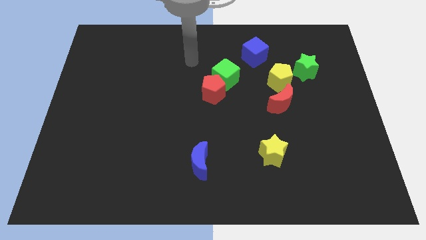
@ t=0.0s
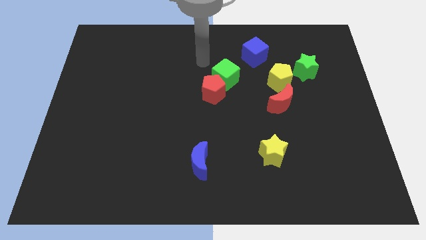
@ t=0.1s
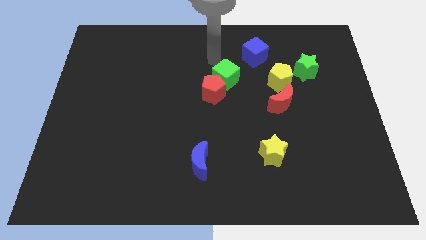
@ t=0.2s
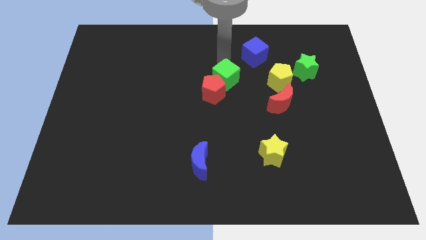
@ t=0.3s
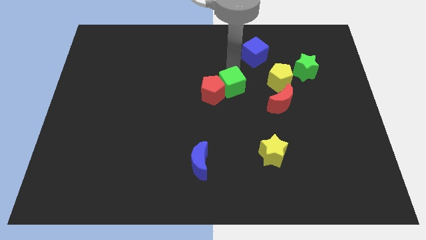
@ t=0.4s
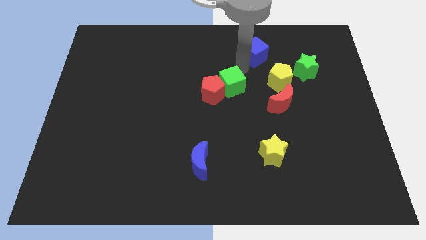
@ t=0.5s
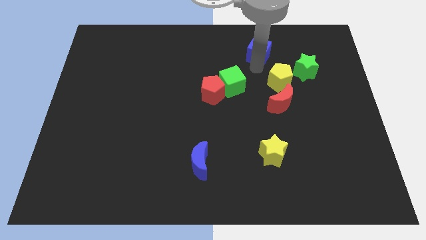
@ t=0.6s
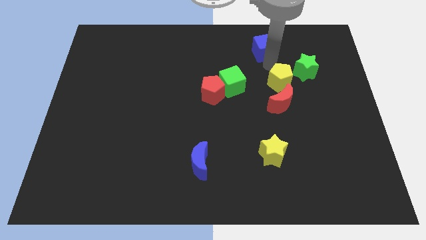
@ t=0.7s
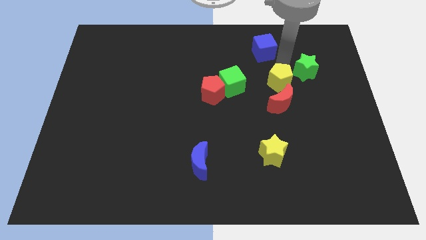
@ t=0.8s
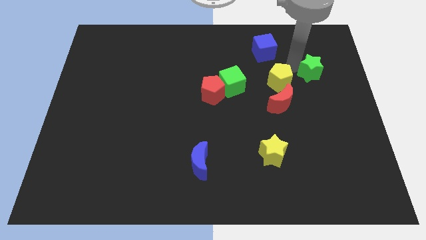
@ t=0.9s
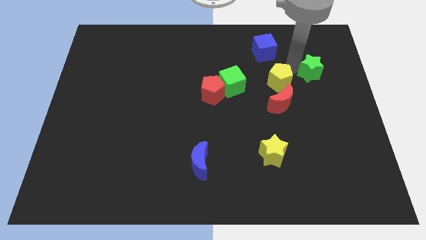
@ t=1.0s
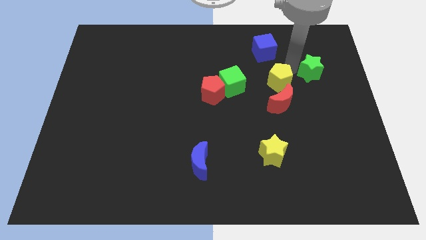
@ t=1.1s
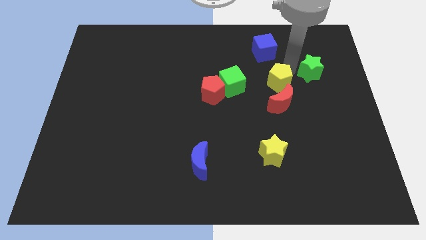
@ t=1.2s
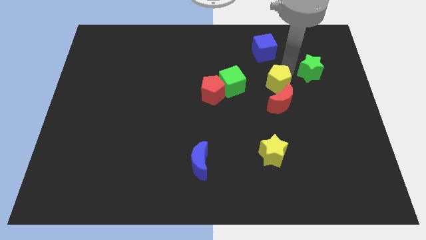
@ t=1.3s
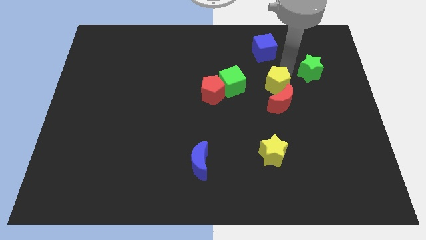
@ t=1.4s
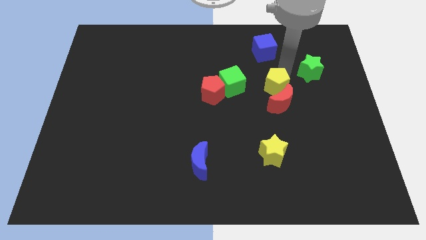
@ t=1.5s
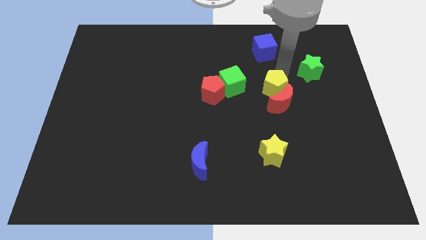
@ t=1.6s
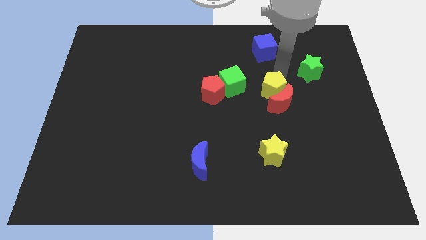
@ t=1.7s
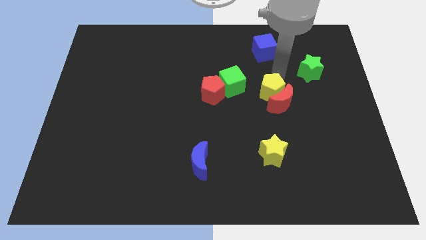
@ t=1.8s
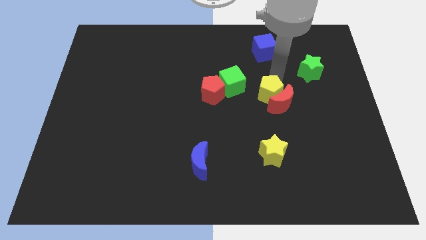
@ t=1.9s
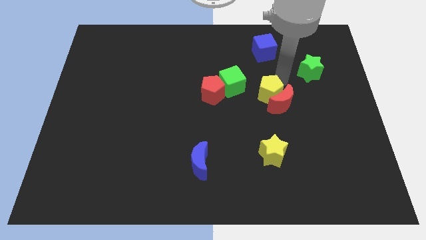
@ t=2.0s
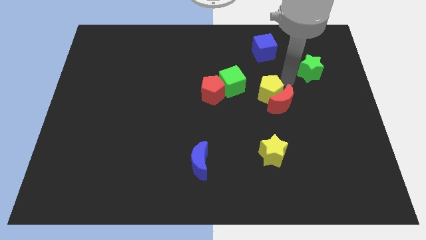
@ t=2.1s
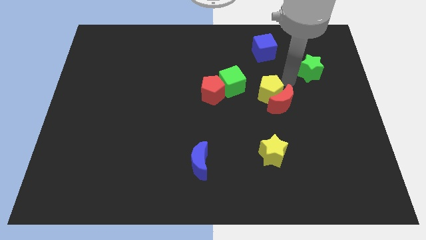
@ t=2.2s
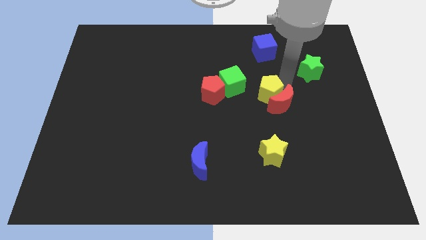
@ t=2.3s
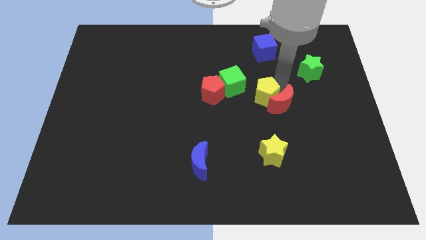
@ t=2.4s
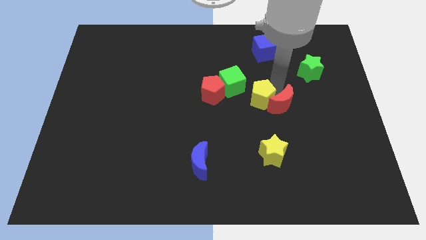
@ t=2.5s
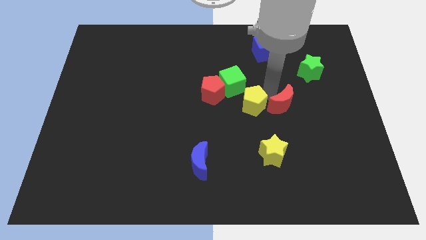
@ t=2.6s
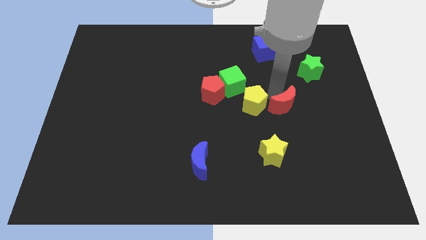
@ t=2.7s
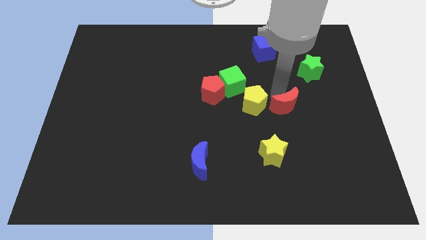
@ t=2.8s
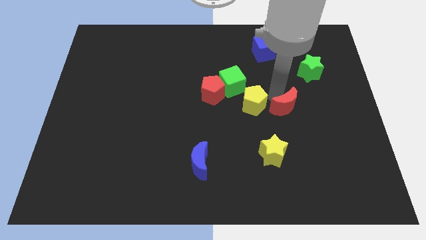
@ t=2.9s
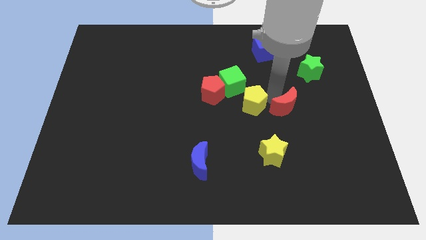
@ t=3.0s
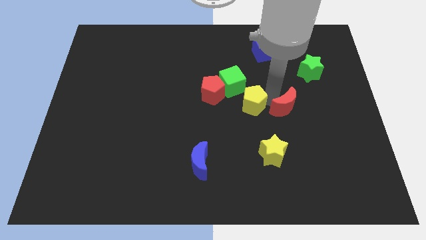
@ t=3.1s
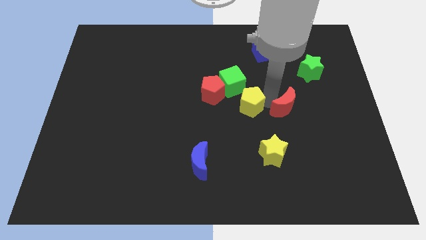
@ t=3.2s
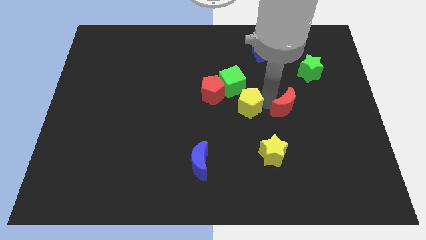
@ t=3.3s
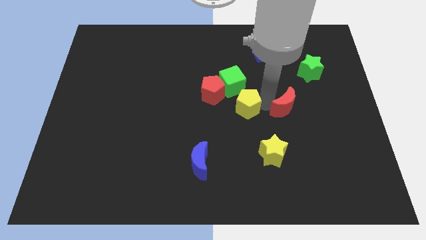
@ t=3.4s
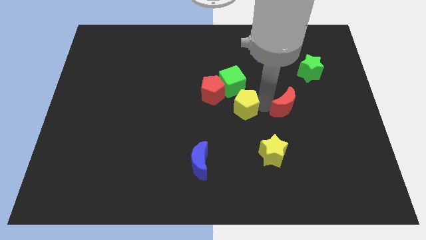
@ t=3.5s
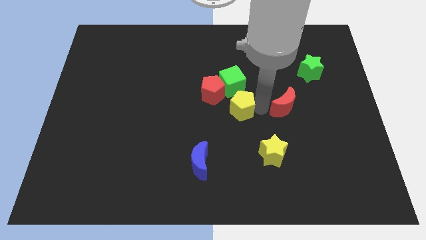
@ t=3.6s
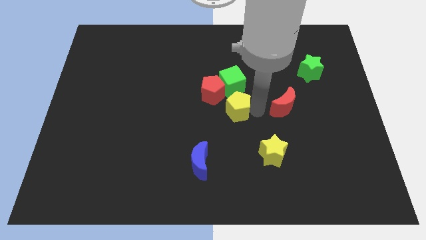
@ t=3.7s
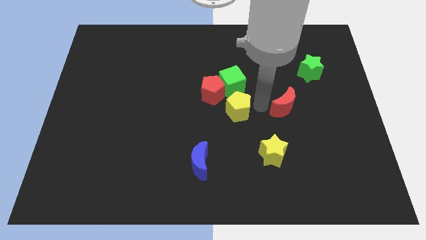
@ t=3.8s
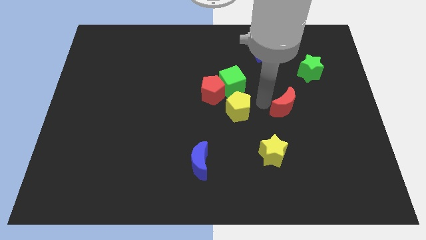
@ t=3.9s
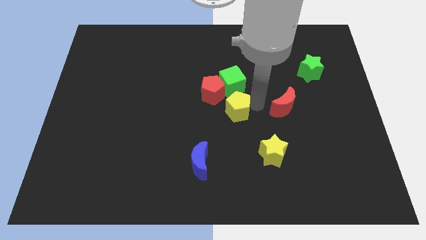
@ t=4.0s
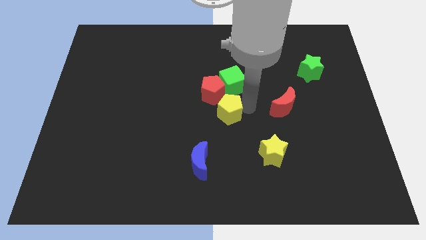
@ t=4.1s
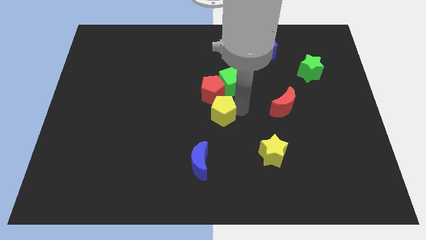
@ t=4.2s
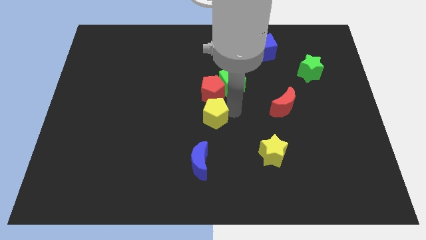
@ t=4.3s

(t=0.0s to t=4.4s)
put the yellow pentagon to the top side of the blue moon

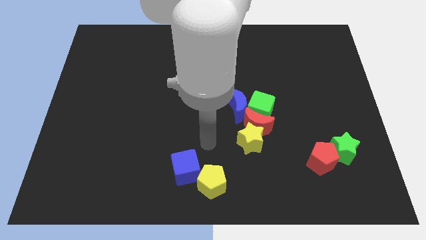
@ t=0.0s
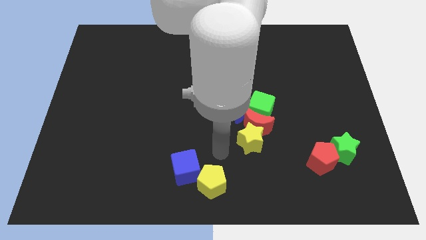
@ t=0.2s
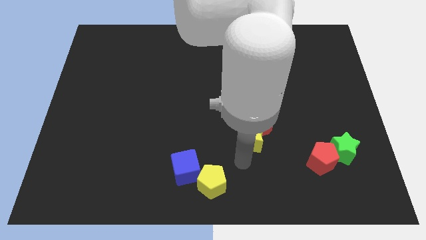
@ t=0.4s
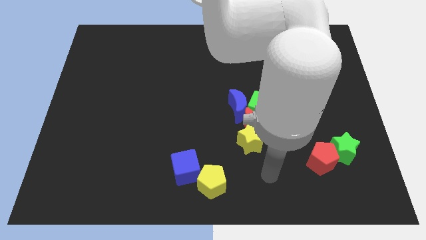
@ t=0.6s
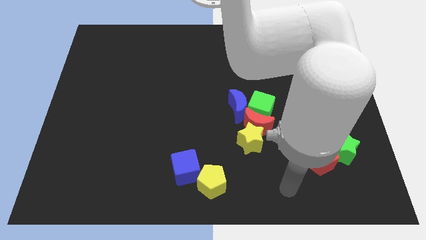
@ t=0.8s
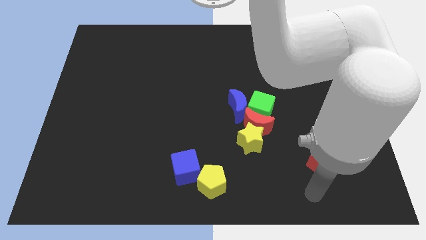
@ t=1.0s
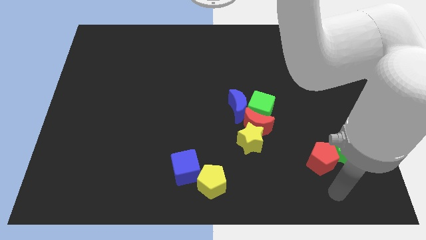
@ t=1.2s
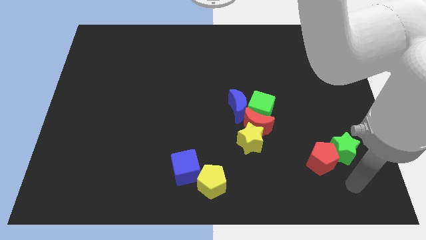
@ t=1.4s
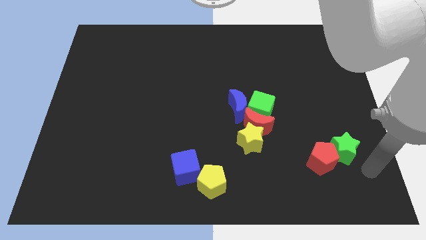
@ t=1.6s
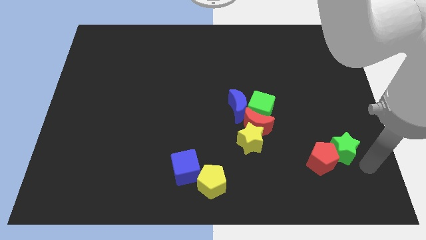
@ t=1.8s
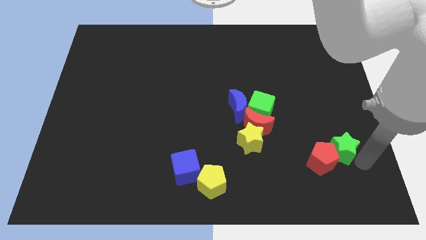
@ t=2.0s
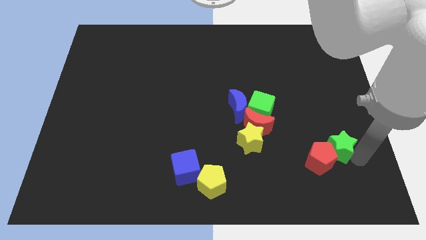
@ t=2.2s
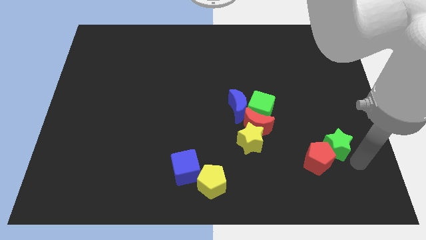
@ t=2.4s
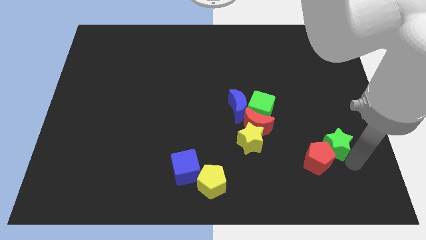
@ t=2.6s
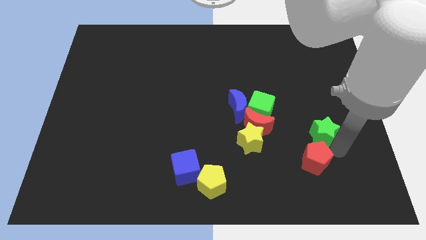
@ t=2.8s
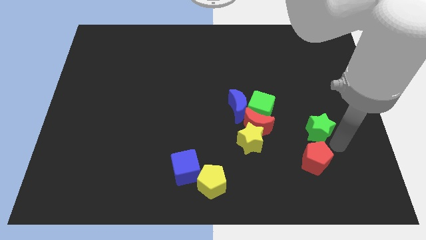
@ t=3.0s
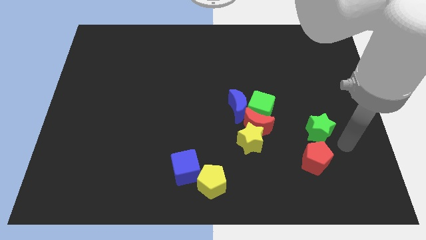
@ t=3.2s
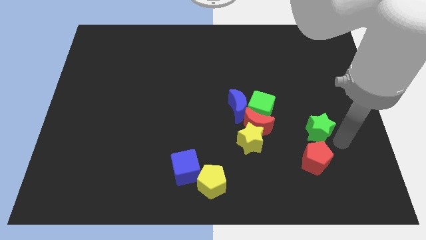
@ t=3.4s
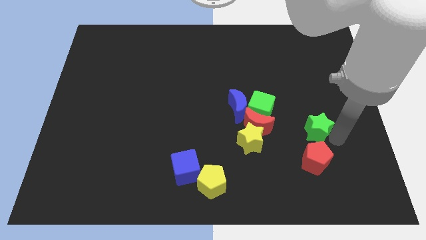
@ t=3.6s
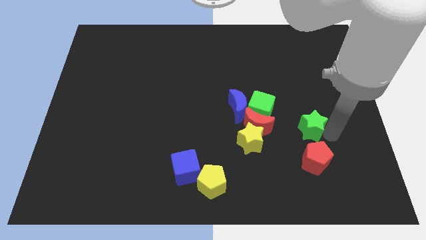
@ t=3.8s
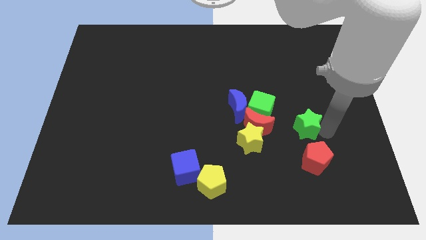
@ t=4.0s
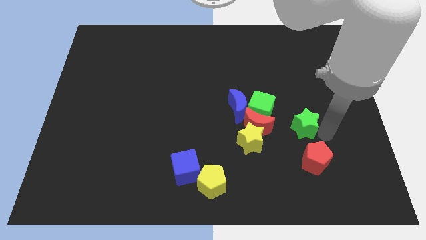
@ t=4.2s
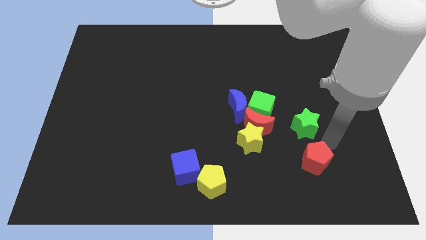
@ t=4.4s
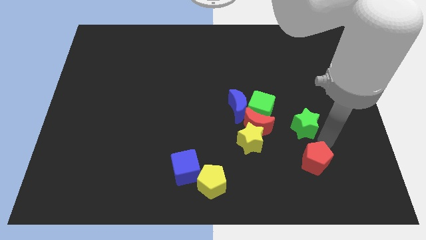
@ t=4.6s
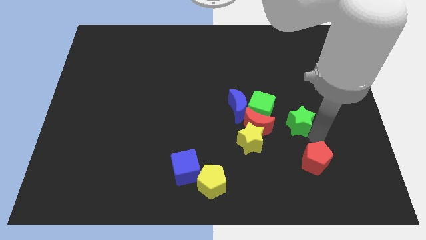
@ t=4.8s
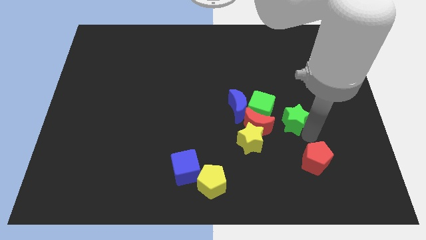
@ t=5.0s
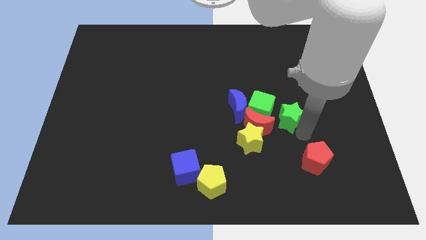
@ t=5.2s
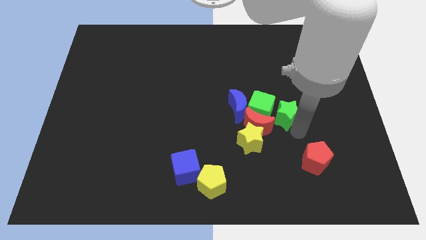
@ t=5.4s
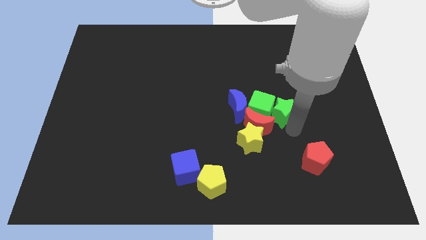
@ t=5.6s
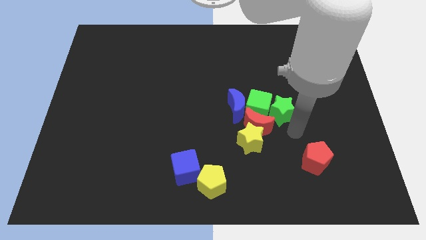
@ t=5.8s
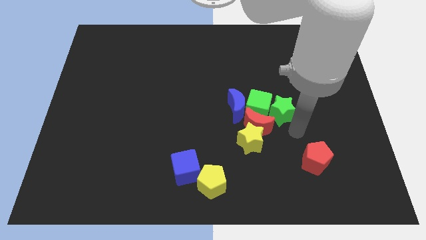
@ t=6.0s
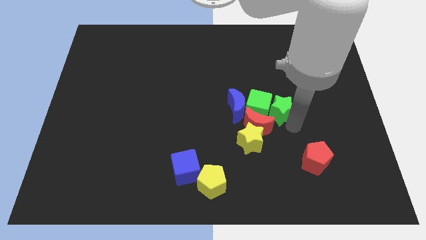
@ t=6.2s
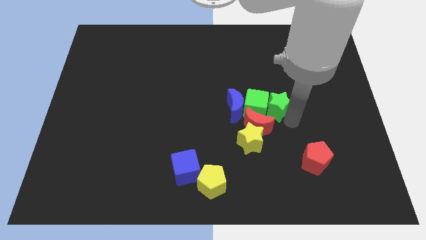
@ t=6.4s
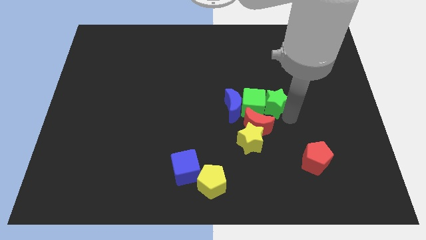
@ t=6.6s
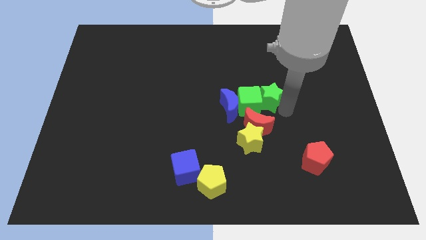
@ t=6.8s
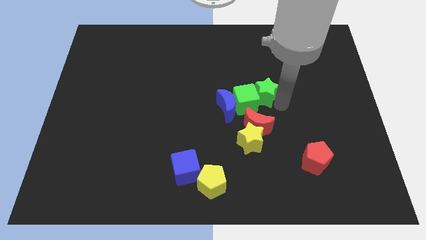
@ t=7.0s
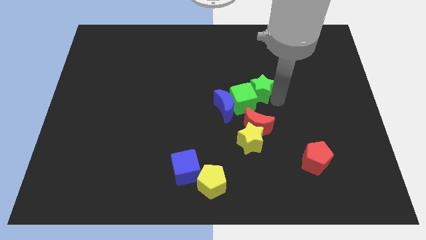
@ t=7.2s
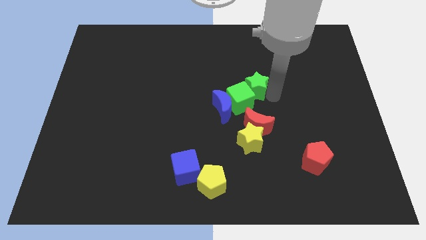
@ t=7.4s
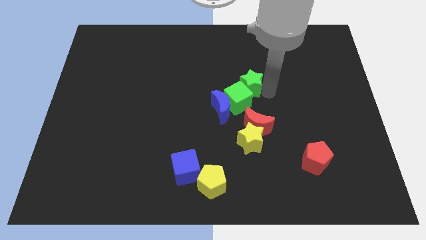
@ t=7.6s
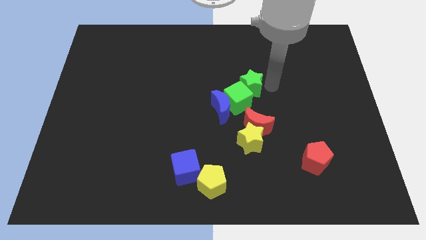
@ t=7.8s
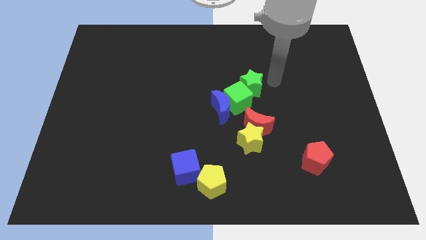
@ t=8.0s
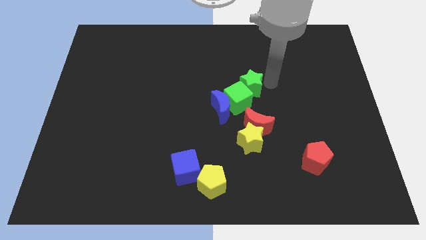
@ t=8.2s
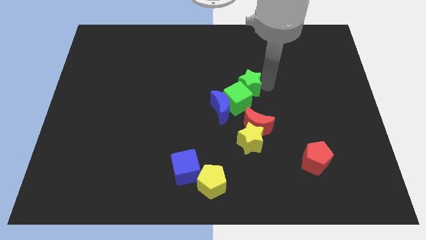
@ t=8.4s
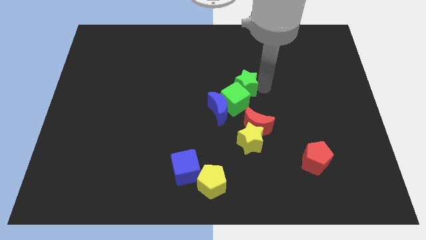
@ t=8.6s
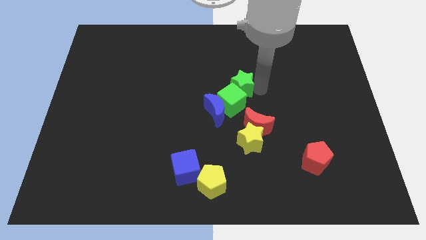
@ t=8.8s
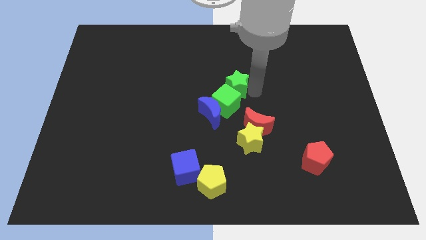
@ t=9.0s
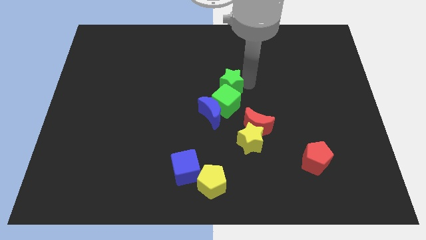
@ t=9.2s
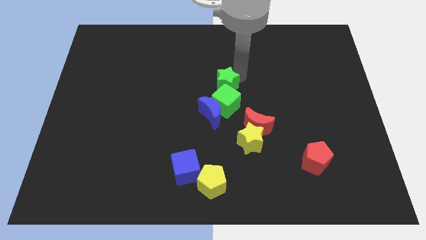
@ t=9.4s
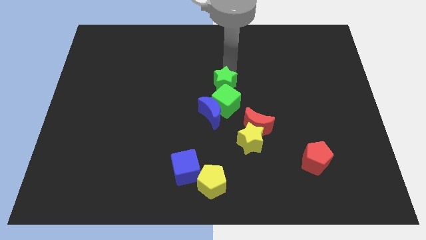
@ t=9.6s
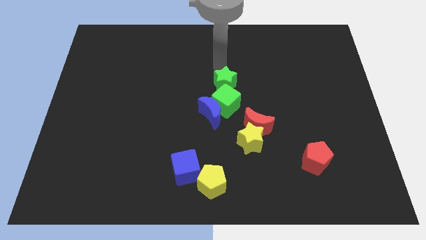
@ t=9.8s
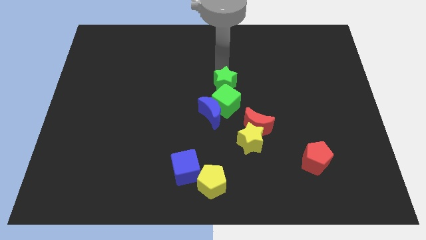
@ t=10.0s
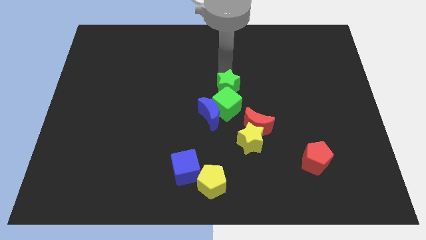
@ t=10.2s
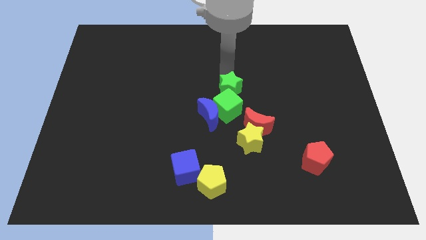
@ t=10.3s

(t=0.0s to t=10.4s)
push the green star to the top left side of the red moon
